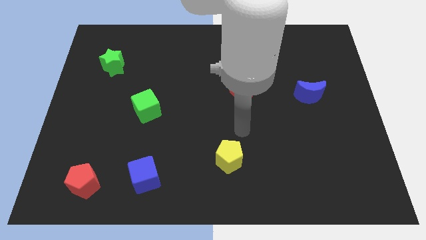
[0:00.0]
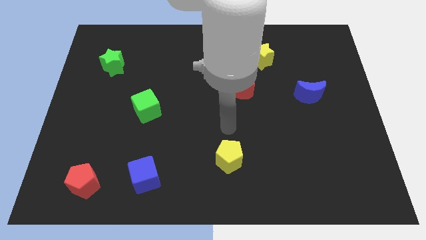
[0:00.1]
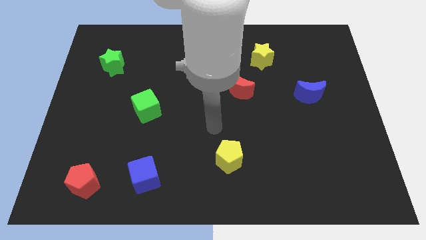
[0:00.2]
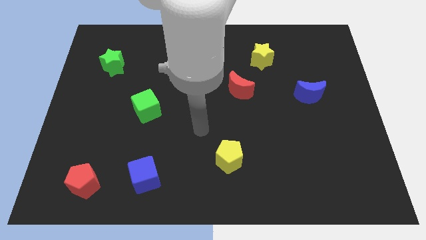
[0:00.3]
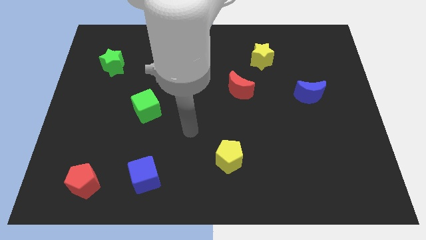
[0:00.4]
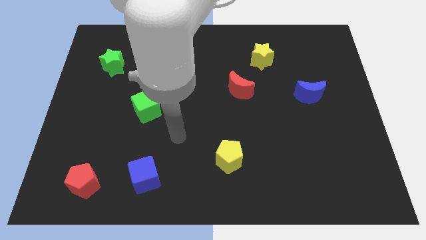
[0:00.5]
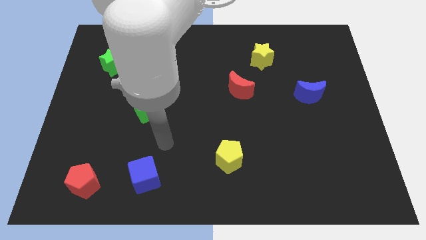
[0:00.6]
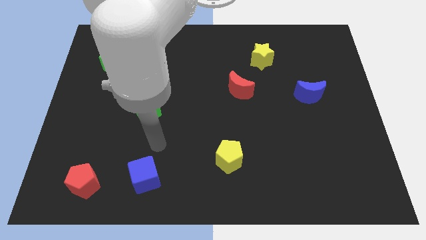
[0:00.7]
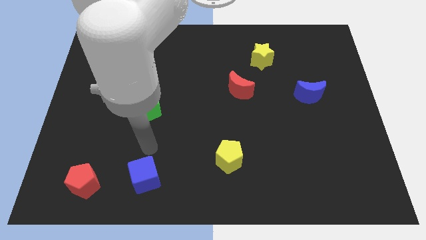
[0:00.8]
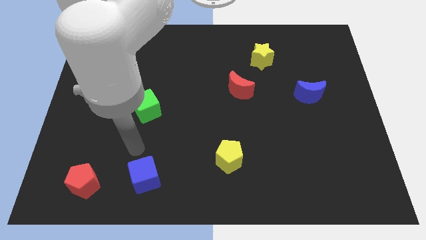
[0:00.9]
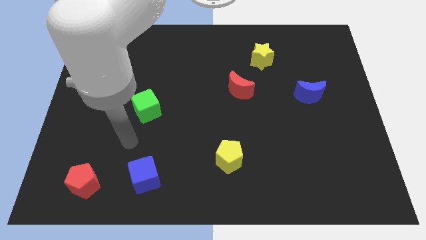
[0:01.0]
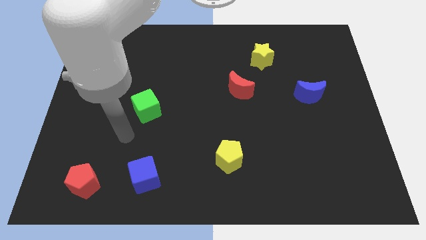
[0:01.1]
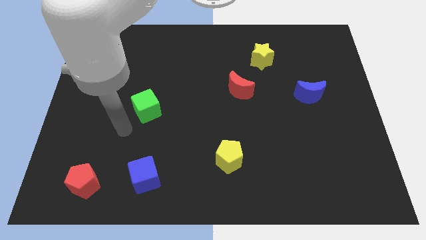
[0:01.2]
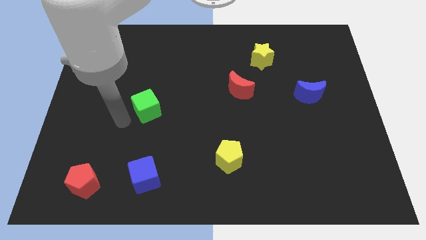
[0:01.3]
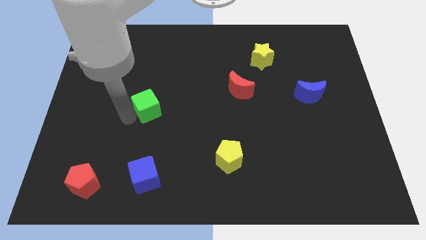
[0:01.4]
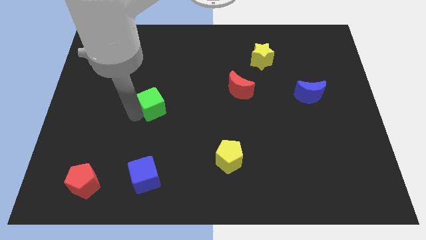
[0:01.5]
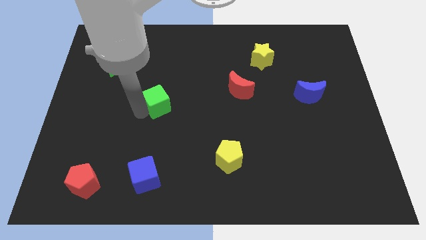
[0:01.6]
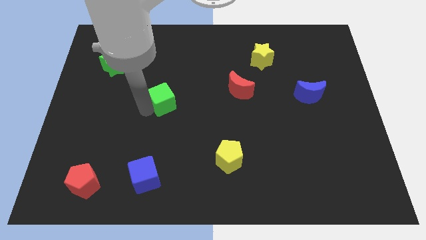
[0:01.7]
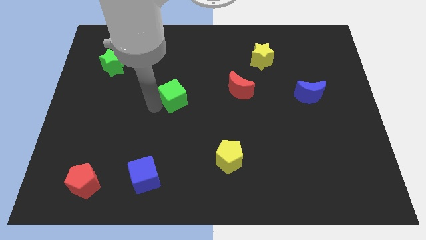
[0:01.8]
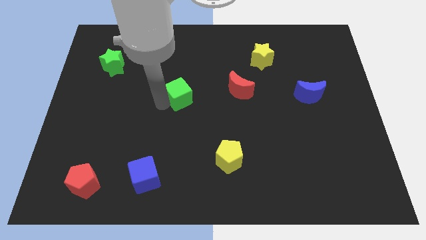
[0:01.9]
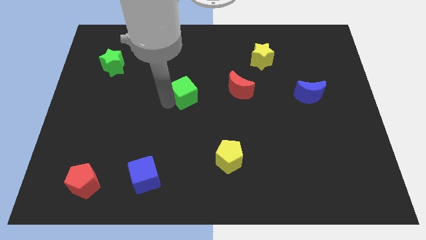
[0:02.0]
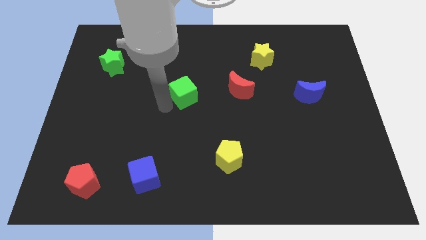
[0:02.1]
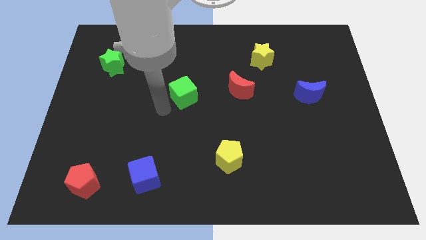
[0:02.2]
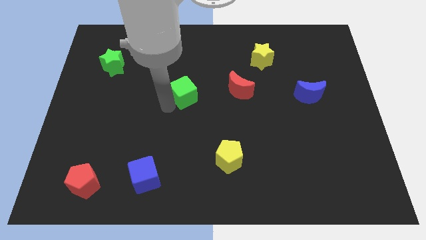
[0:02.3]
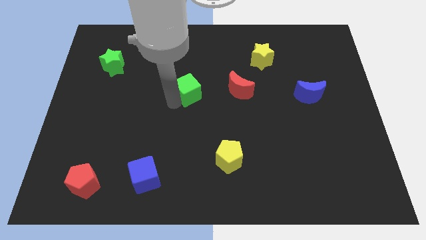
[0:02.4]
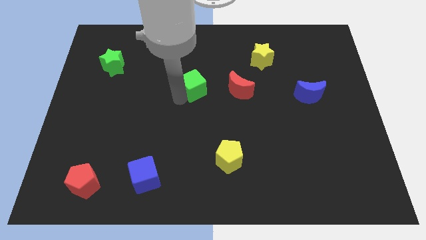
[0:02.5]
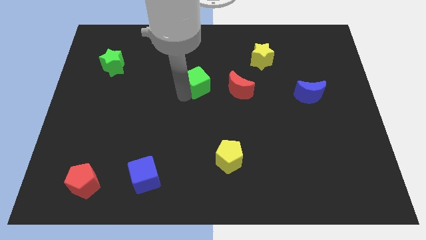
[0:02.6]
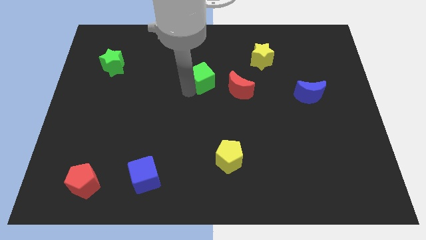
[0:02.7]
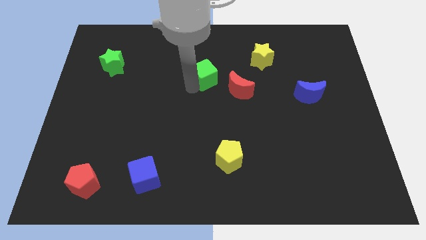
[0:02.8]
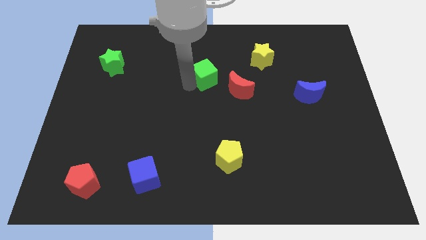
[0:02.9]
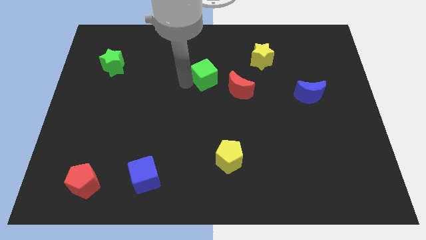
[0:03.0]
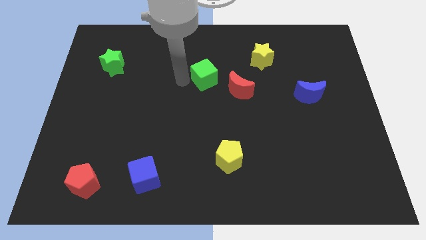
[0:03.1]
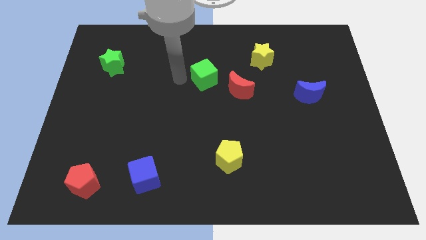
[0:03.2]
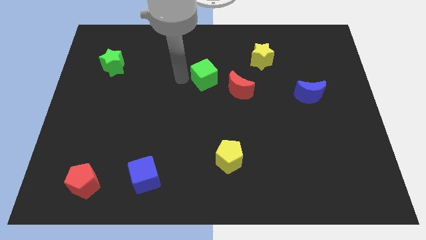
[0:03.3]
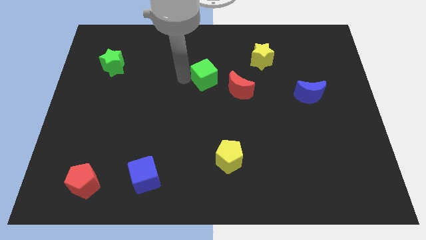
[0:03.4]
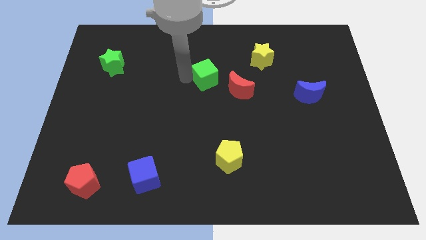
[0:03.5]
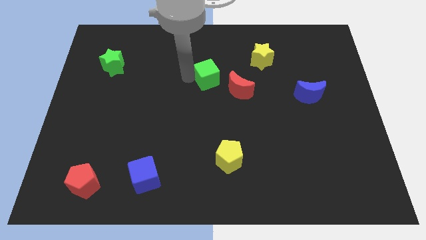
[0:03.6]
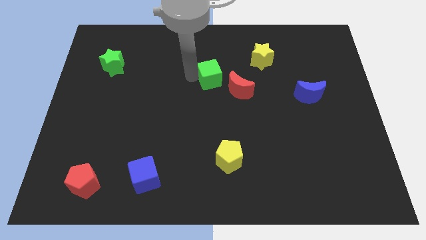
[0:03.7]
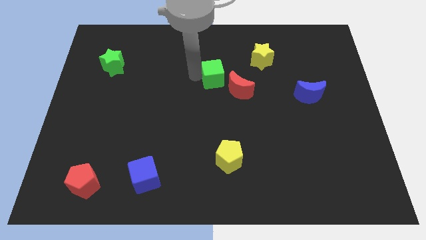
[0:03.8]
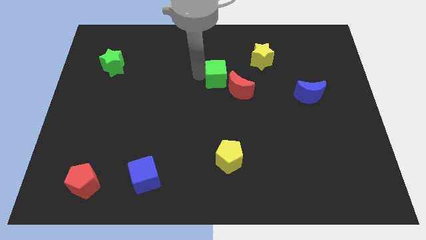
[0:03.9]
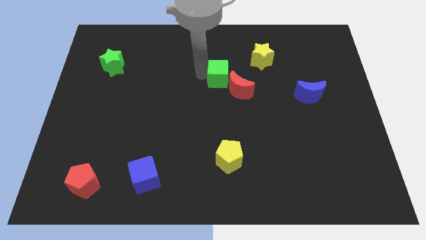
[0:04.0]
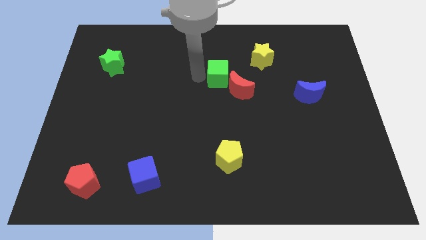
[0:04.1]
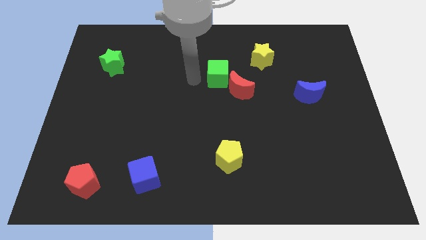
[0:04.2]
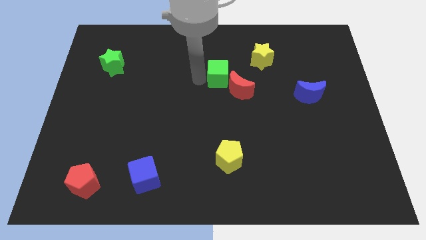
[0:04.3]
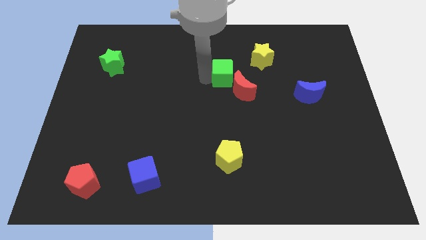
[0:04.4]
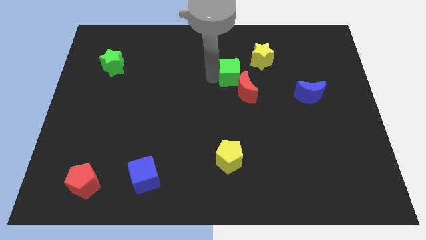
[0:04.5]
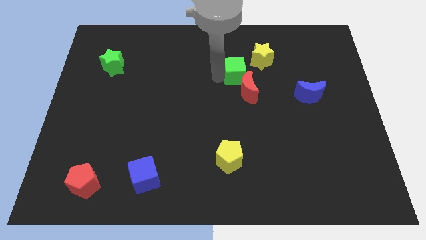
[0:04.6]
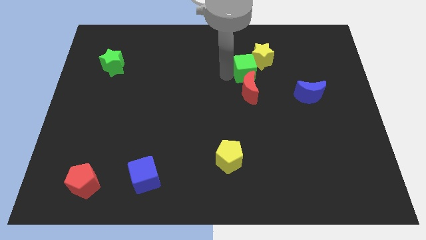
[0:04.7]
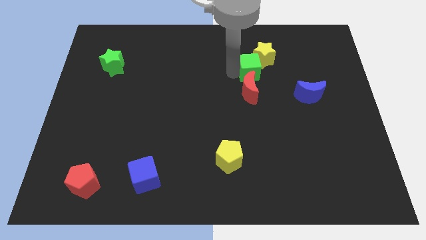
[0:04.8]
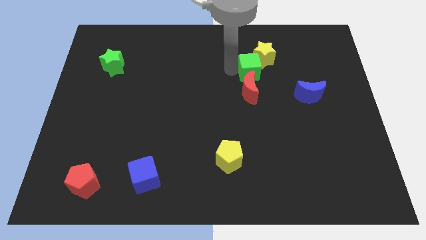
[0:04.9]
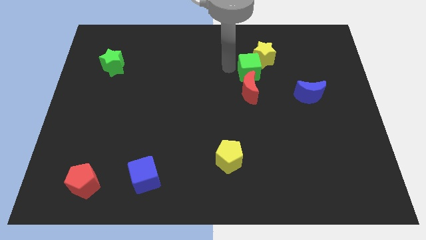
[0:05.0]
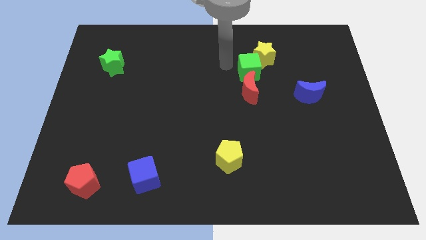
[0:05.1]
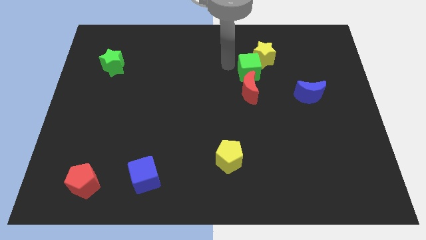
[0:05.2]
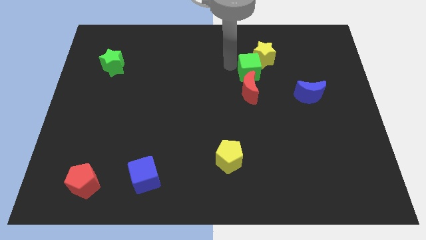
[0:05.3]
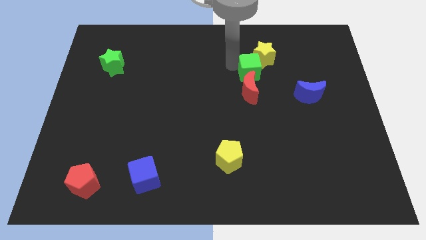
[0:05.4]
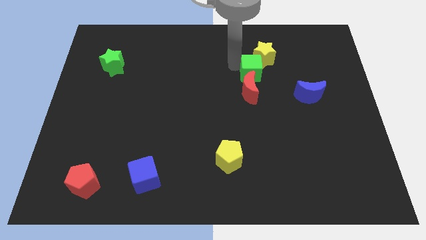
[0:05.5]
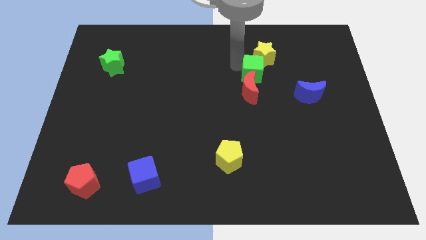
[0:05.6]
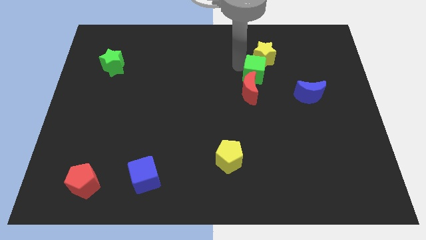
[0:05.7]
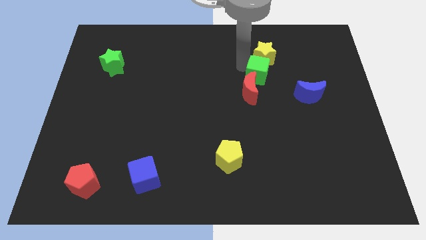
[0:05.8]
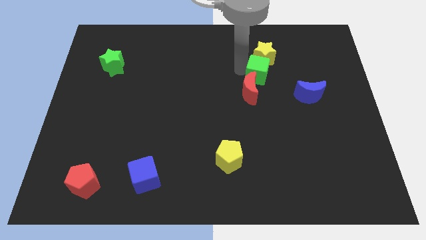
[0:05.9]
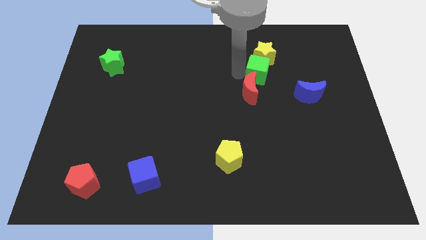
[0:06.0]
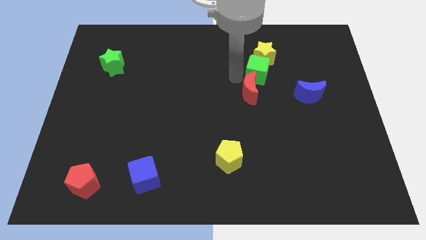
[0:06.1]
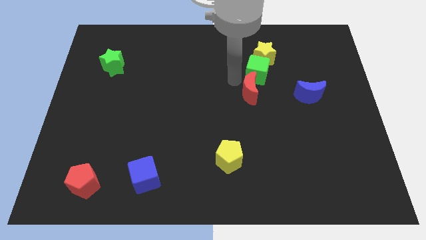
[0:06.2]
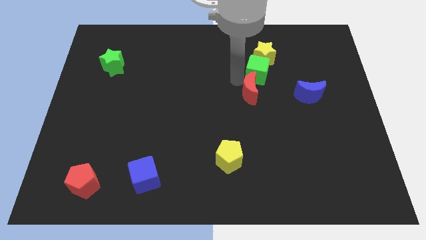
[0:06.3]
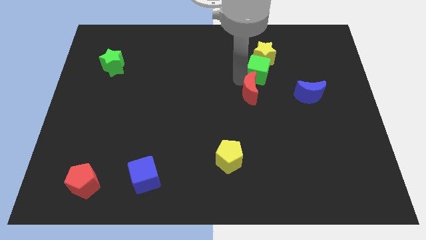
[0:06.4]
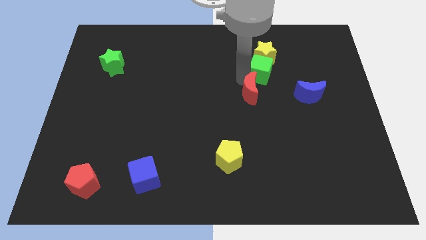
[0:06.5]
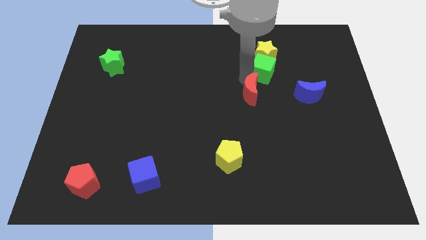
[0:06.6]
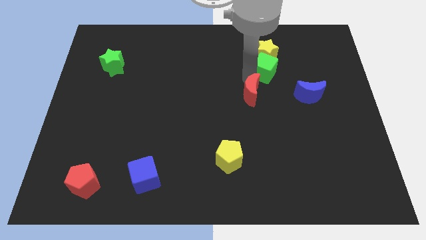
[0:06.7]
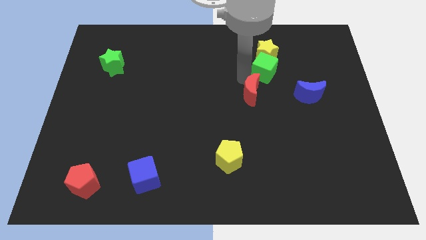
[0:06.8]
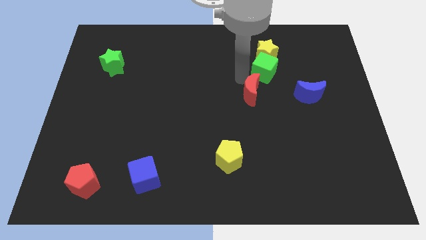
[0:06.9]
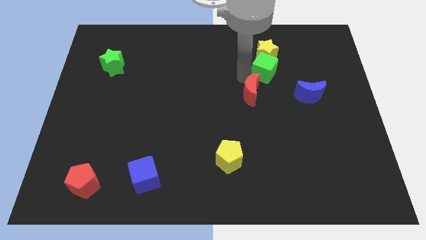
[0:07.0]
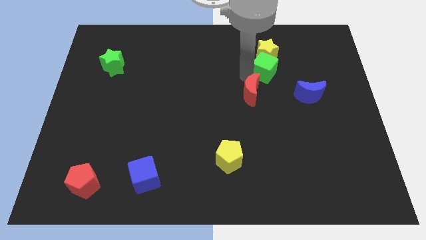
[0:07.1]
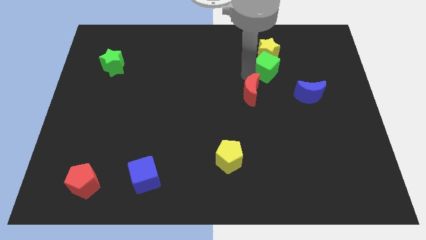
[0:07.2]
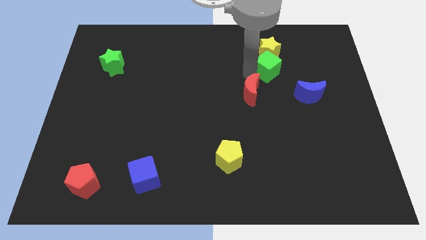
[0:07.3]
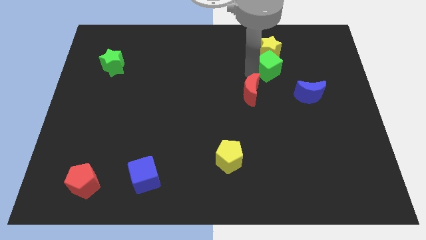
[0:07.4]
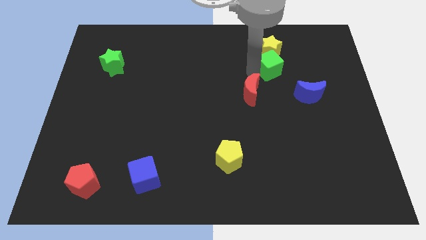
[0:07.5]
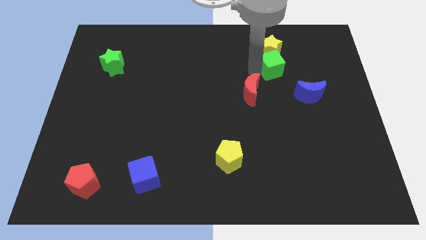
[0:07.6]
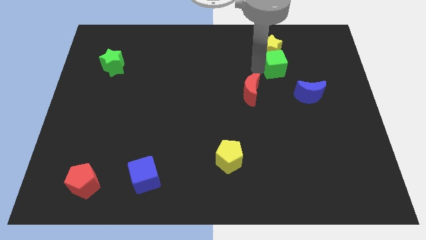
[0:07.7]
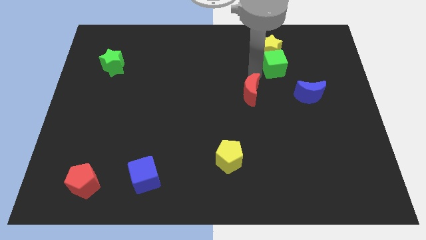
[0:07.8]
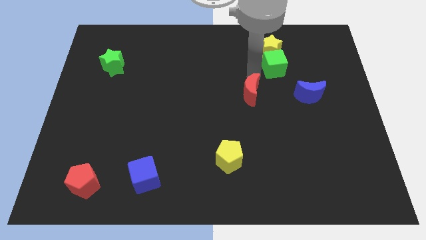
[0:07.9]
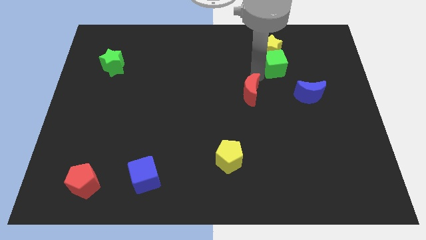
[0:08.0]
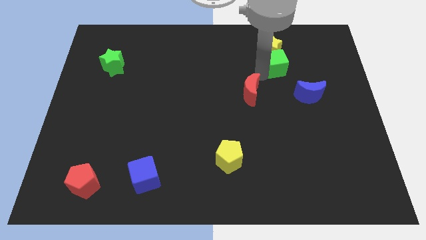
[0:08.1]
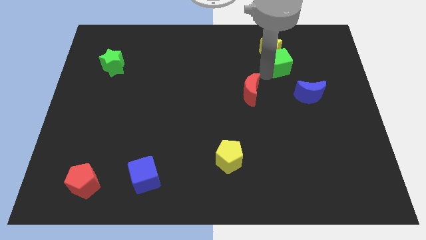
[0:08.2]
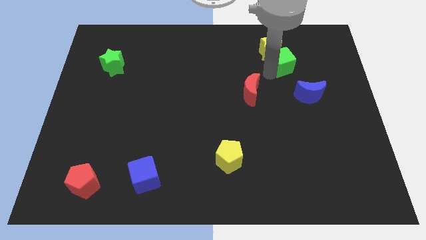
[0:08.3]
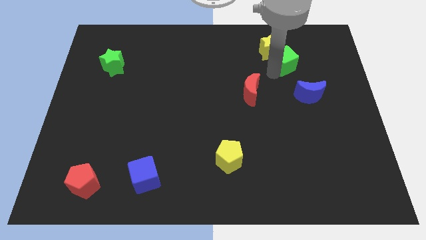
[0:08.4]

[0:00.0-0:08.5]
put the green cube just right of the yellow star
